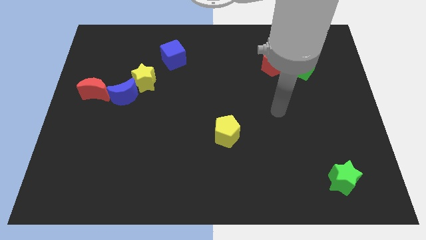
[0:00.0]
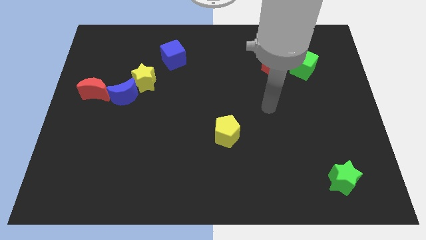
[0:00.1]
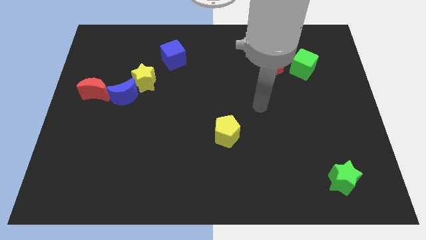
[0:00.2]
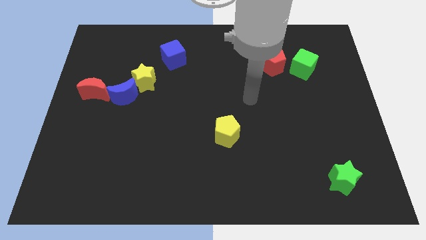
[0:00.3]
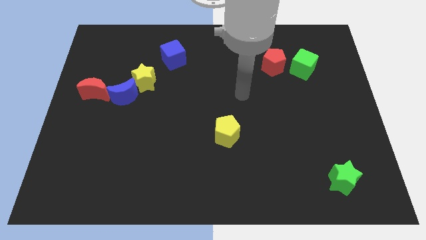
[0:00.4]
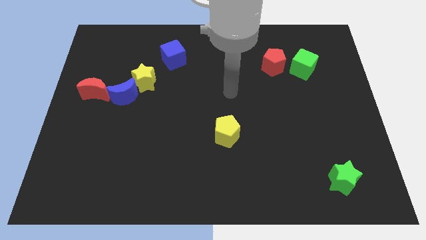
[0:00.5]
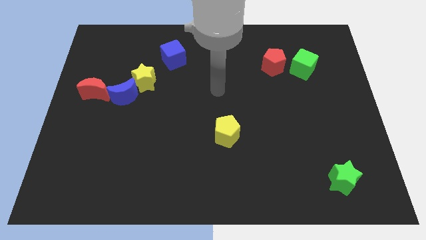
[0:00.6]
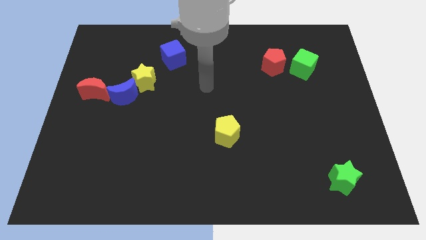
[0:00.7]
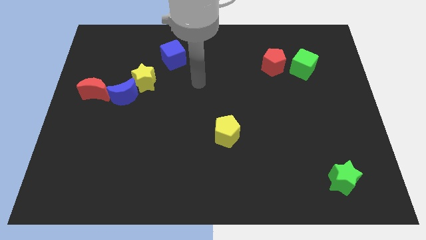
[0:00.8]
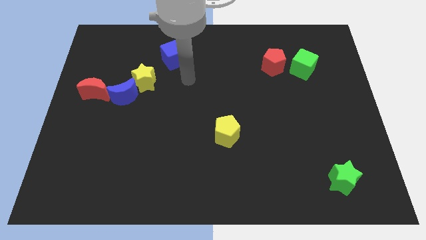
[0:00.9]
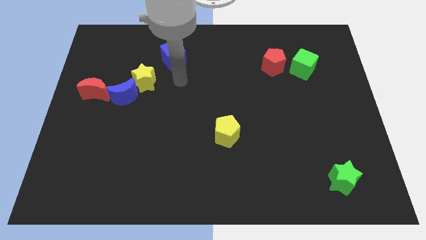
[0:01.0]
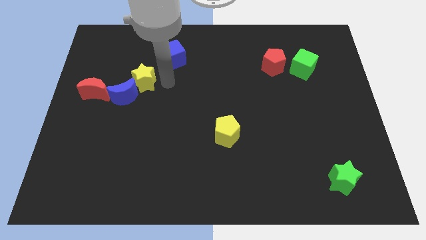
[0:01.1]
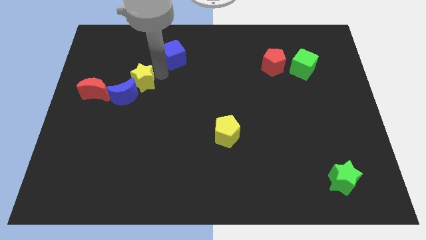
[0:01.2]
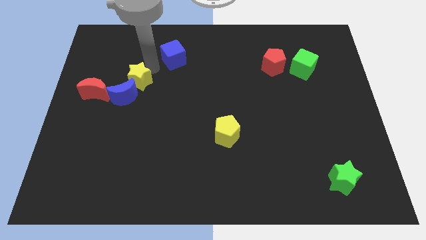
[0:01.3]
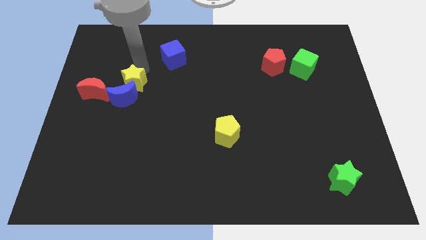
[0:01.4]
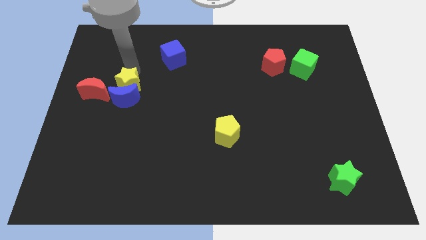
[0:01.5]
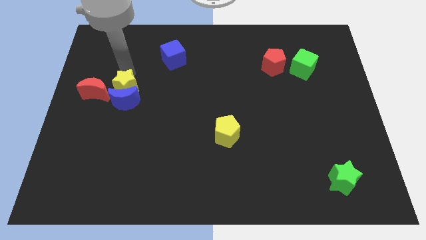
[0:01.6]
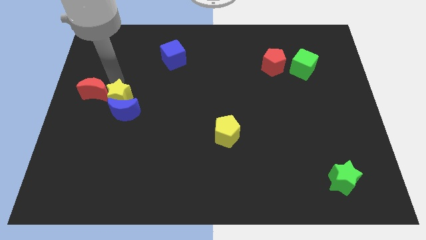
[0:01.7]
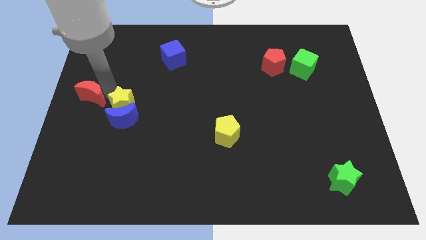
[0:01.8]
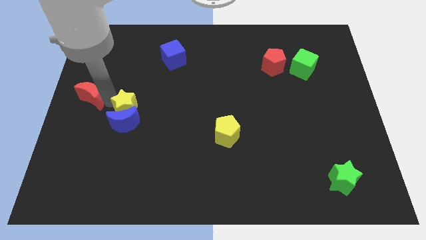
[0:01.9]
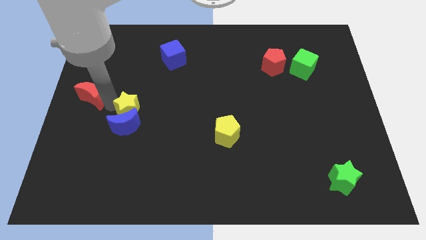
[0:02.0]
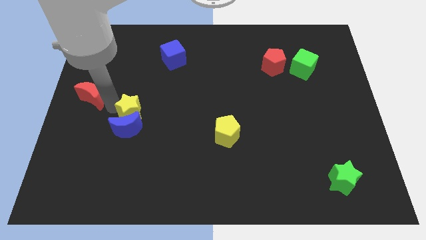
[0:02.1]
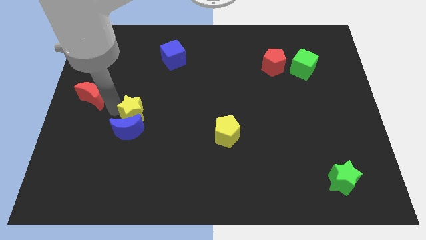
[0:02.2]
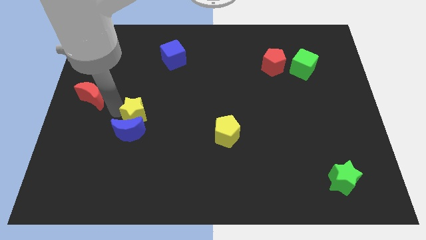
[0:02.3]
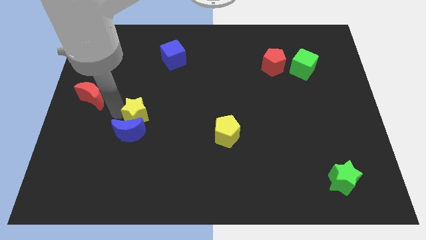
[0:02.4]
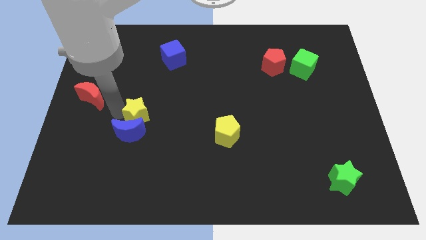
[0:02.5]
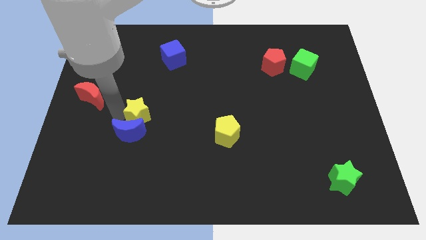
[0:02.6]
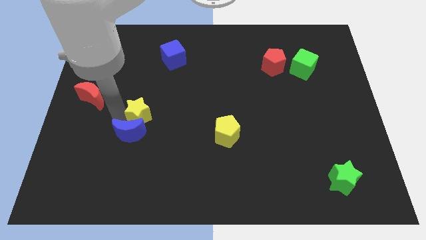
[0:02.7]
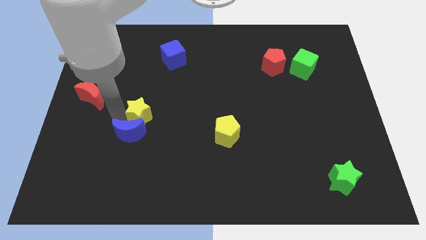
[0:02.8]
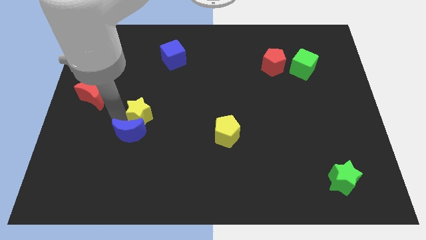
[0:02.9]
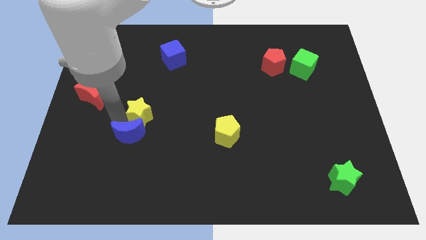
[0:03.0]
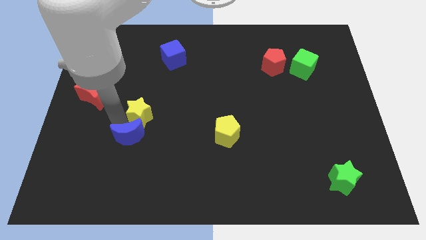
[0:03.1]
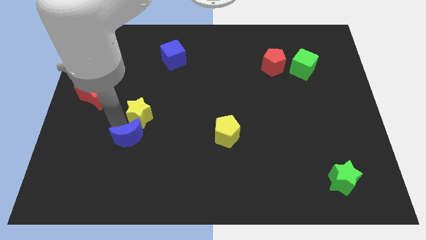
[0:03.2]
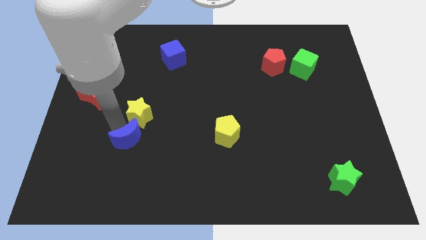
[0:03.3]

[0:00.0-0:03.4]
move the blue moon away from the yellow star and red moon

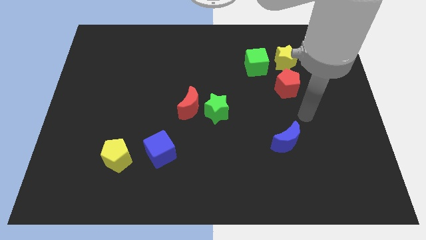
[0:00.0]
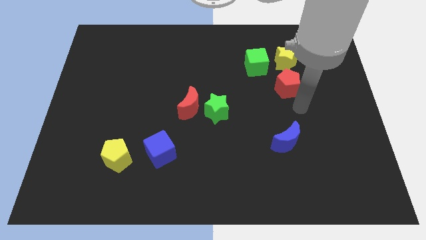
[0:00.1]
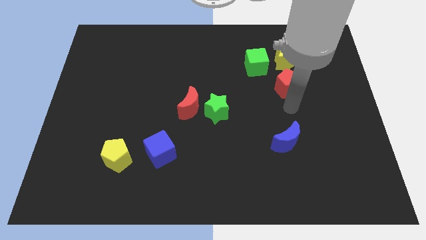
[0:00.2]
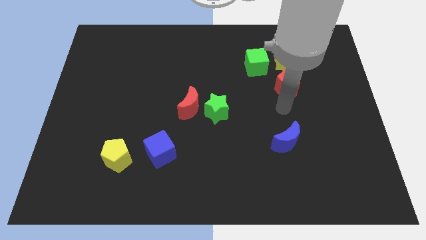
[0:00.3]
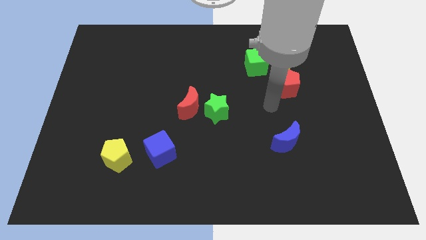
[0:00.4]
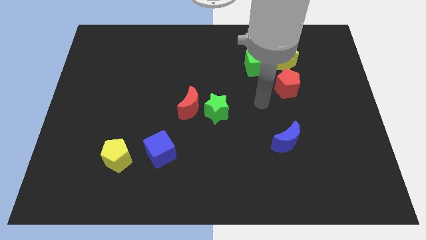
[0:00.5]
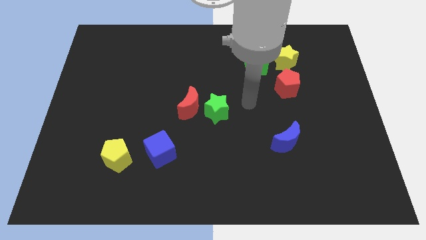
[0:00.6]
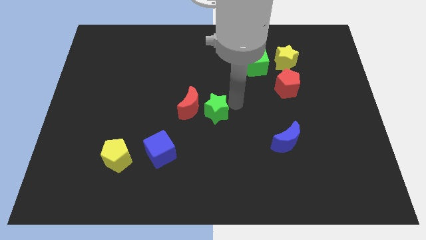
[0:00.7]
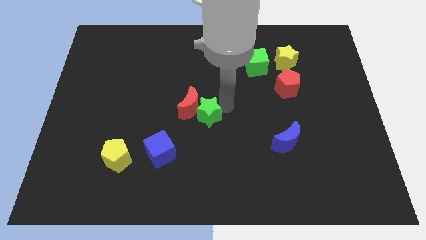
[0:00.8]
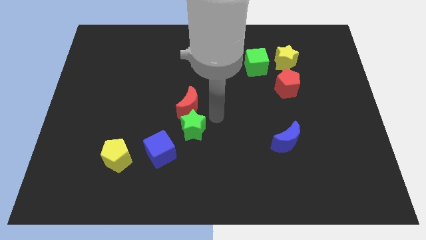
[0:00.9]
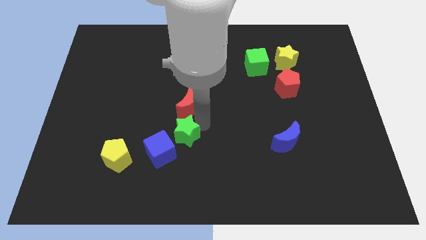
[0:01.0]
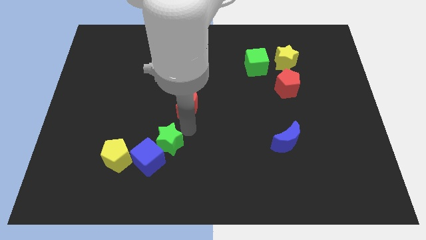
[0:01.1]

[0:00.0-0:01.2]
pull the red moon apart from the green star

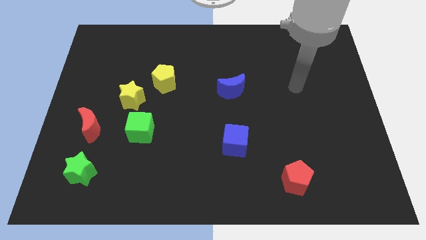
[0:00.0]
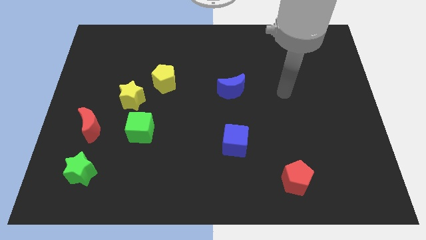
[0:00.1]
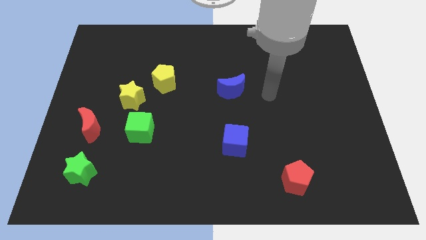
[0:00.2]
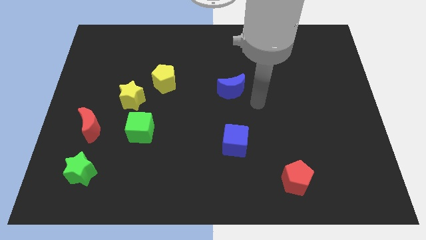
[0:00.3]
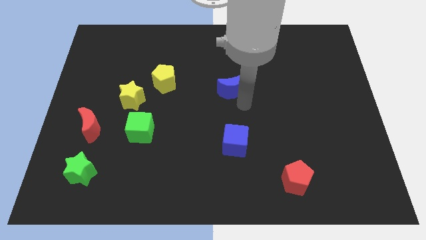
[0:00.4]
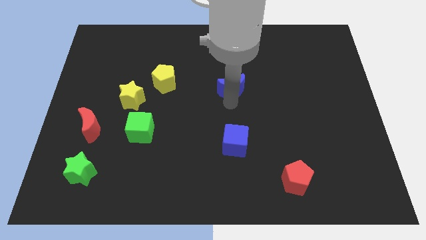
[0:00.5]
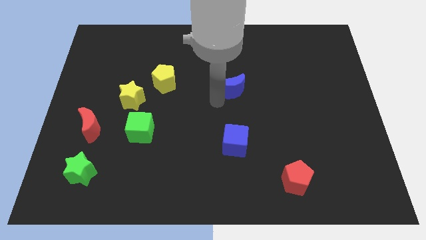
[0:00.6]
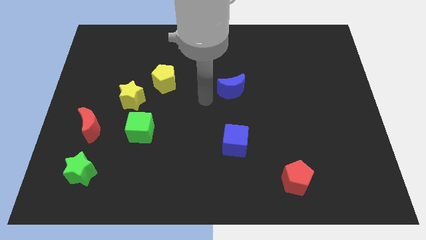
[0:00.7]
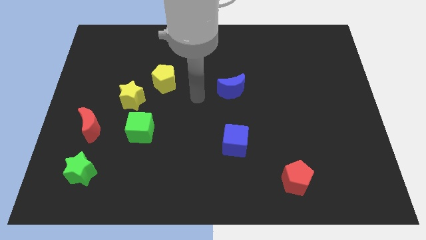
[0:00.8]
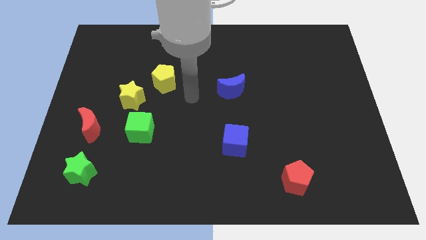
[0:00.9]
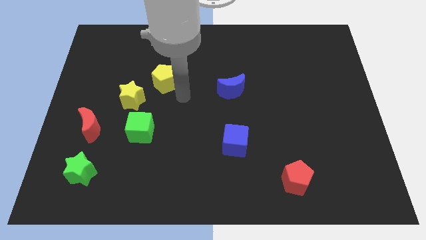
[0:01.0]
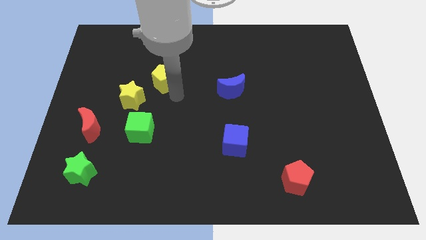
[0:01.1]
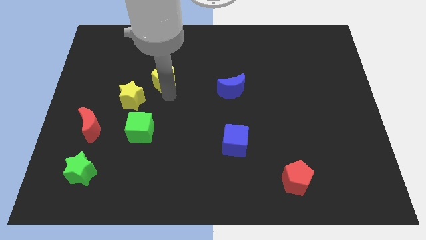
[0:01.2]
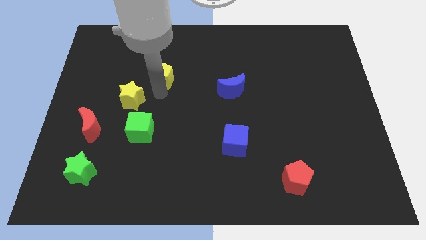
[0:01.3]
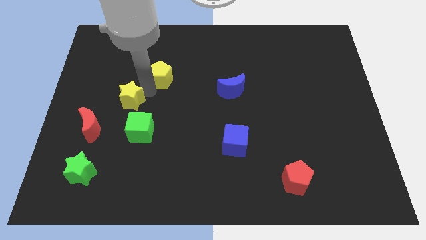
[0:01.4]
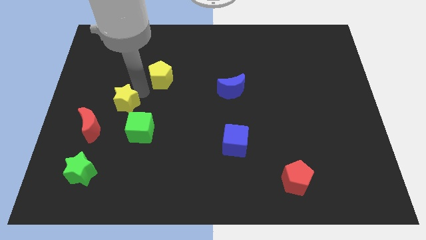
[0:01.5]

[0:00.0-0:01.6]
pull the yellow pentagon apart from the yellow star

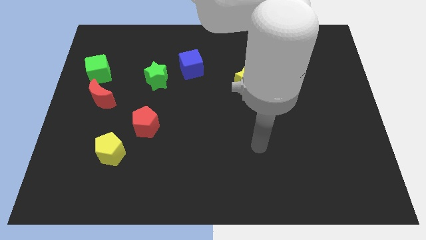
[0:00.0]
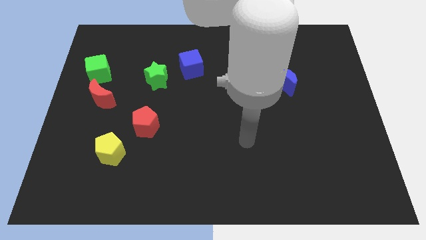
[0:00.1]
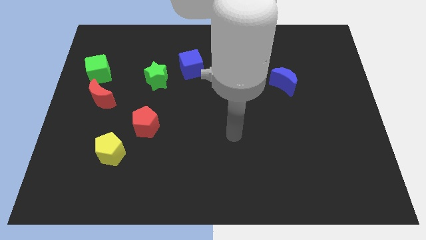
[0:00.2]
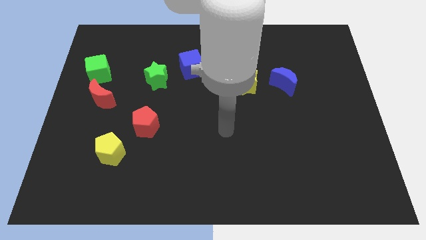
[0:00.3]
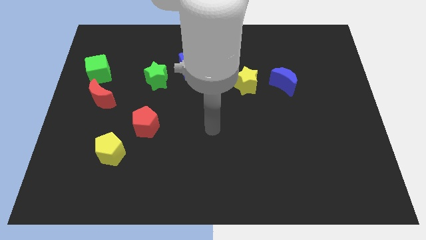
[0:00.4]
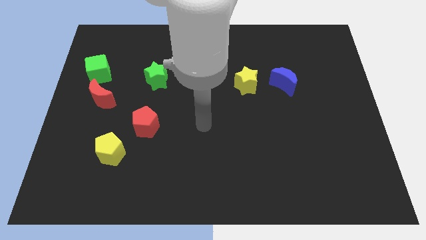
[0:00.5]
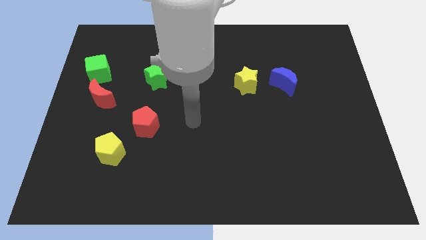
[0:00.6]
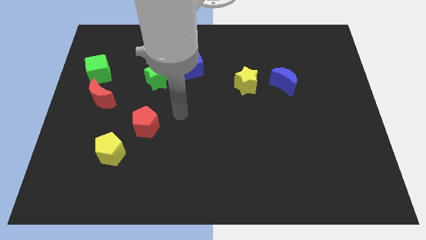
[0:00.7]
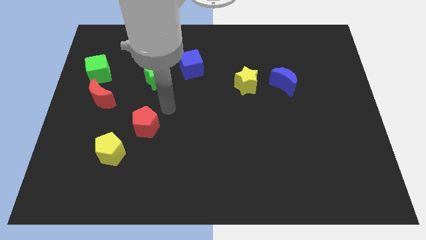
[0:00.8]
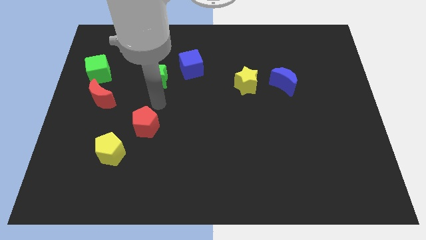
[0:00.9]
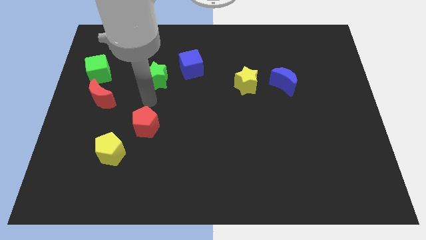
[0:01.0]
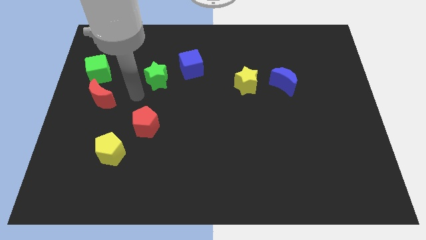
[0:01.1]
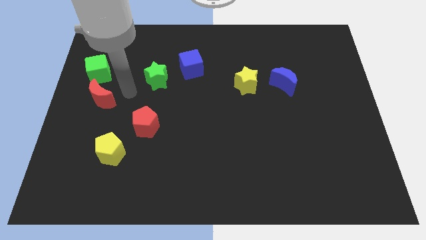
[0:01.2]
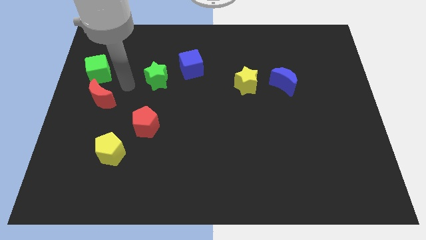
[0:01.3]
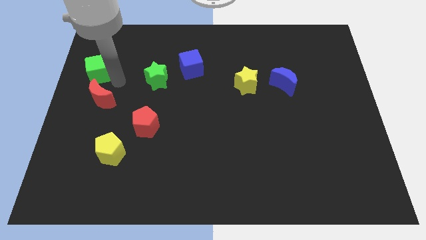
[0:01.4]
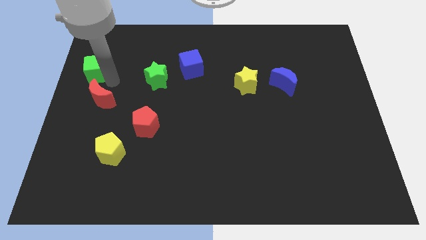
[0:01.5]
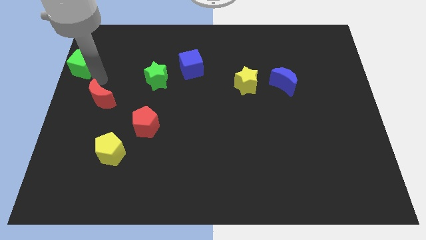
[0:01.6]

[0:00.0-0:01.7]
pull the red moon apart from the green cube

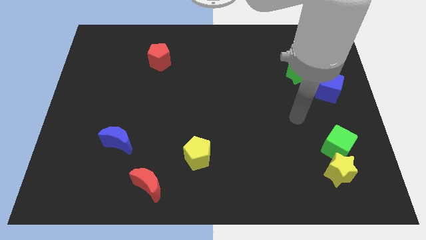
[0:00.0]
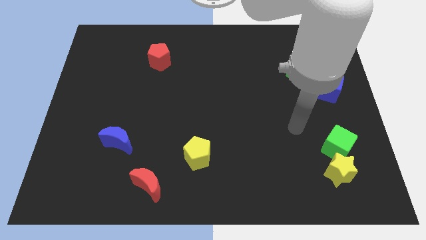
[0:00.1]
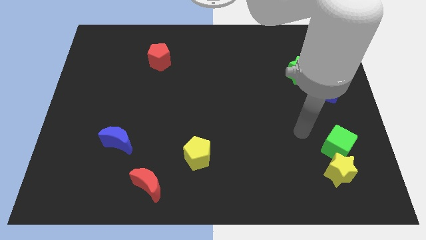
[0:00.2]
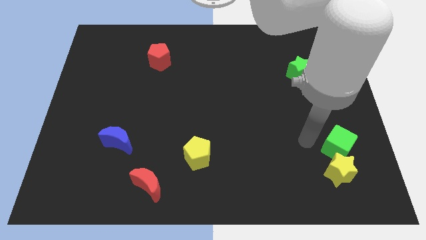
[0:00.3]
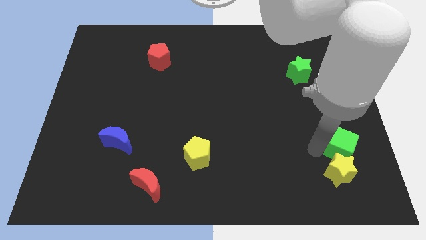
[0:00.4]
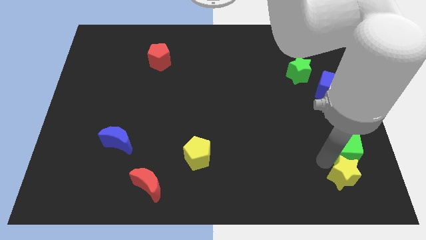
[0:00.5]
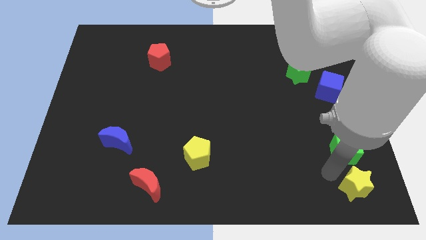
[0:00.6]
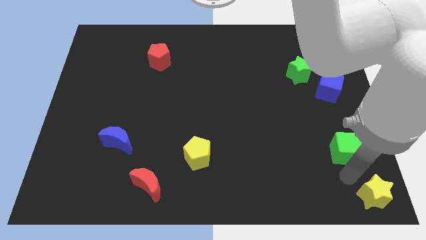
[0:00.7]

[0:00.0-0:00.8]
move the green cube away from the yellow star

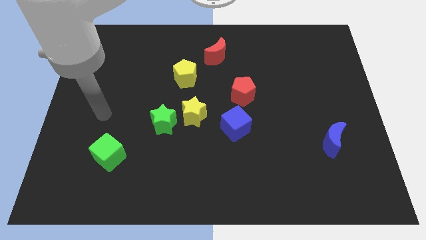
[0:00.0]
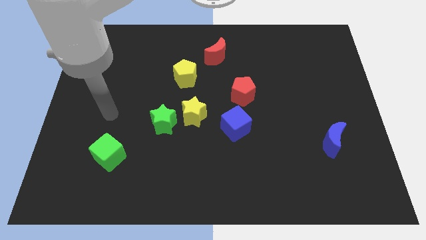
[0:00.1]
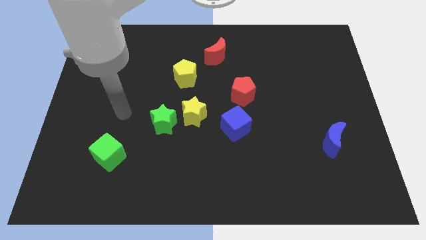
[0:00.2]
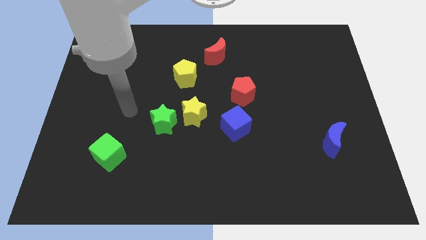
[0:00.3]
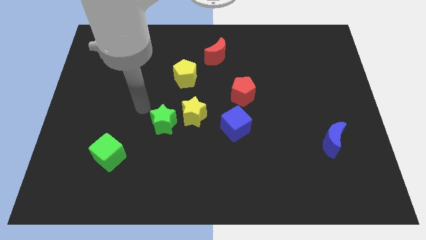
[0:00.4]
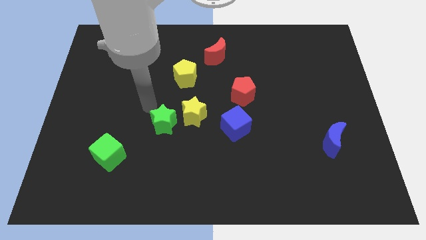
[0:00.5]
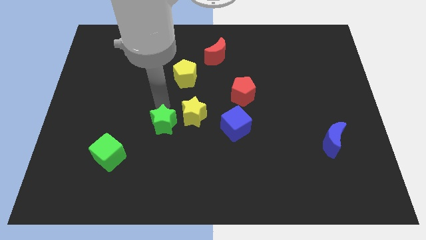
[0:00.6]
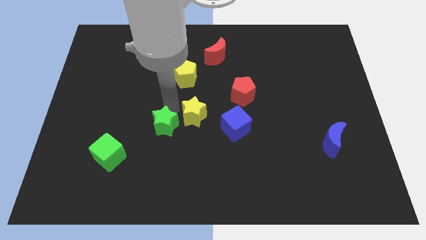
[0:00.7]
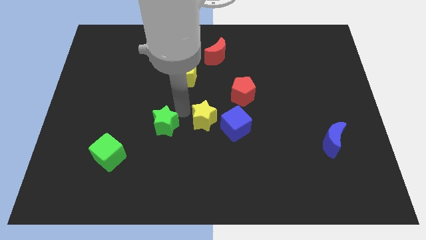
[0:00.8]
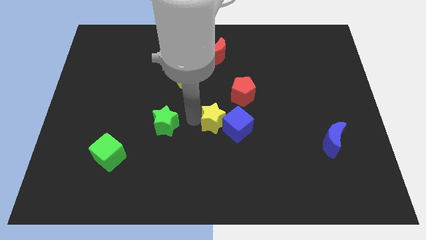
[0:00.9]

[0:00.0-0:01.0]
separate the green star from the yellow star
